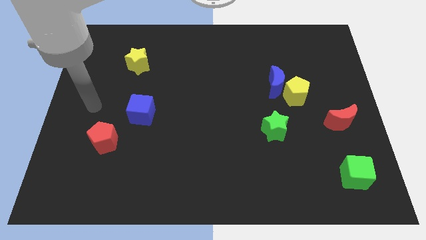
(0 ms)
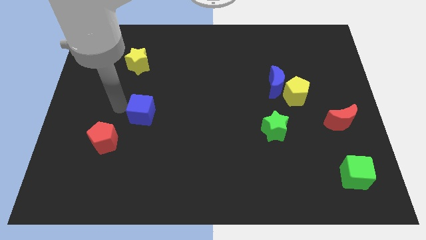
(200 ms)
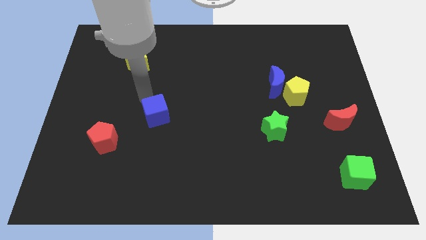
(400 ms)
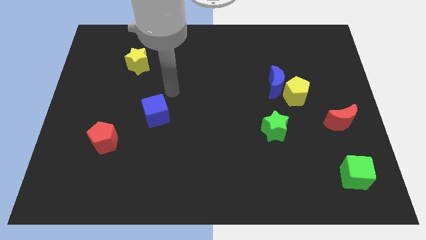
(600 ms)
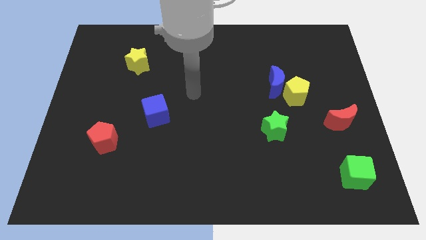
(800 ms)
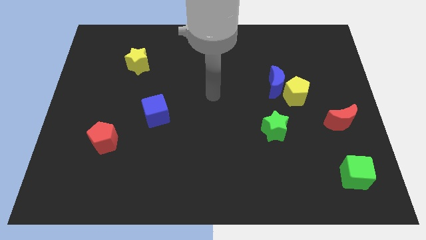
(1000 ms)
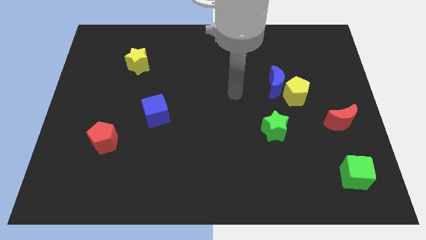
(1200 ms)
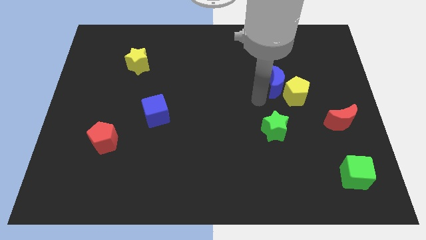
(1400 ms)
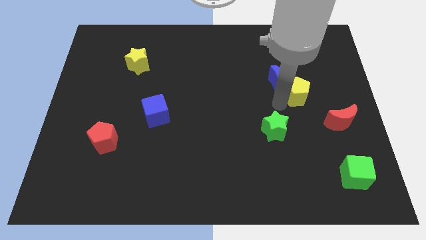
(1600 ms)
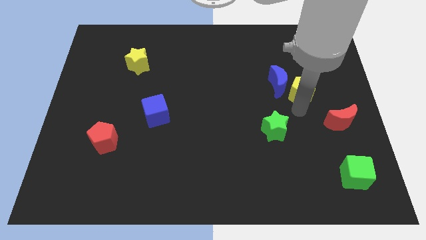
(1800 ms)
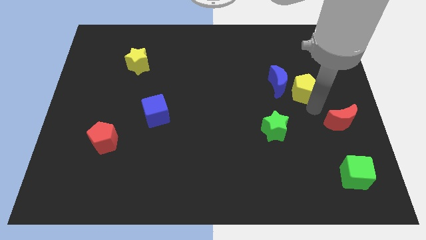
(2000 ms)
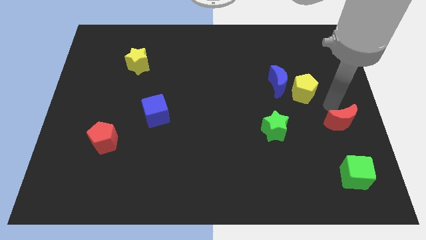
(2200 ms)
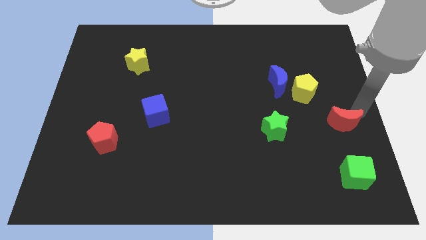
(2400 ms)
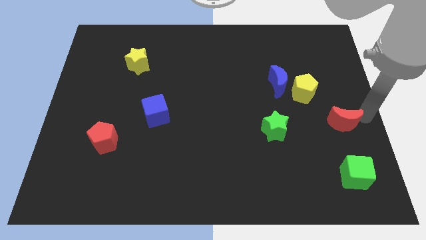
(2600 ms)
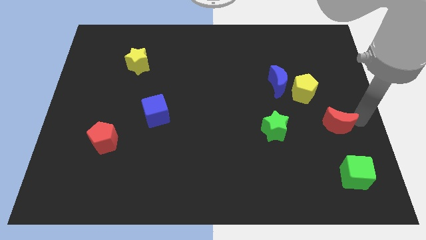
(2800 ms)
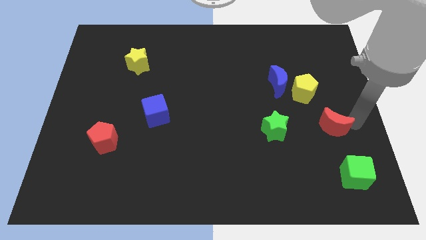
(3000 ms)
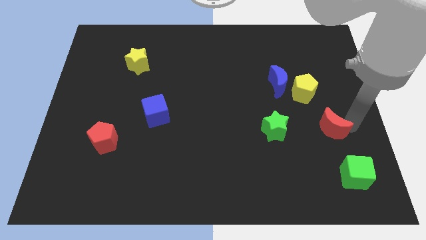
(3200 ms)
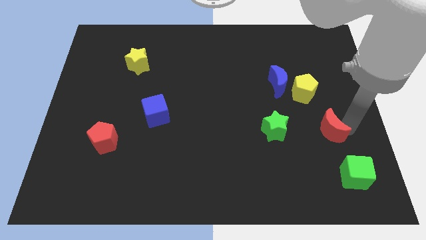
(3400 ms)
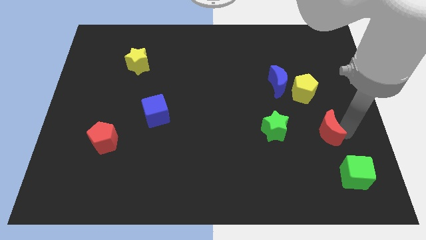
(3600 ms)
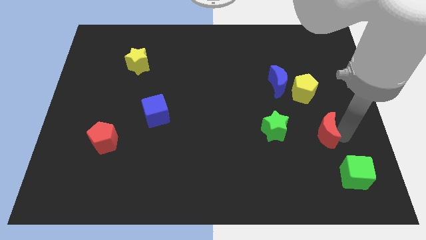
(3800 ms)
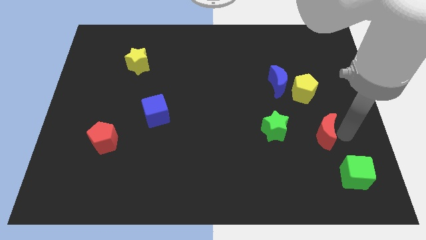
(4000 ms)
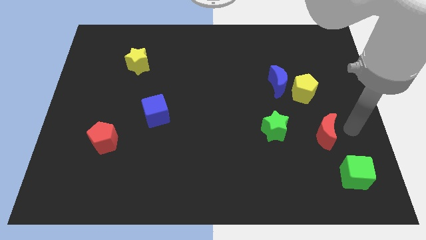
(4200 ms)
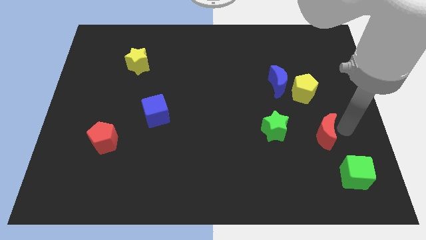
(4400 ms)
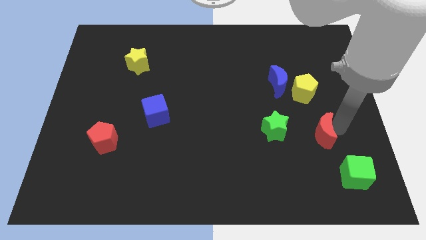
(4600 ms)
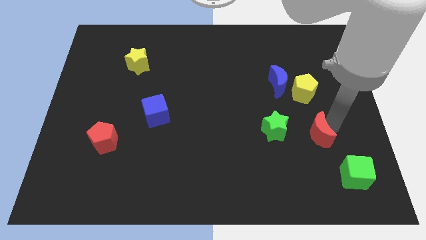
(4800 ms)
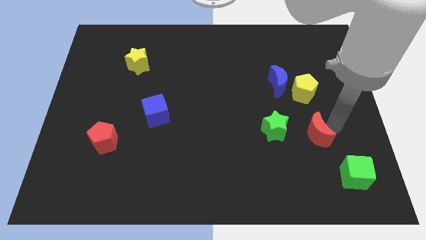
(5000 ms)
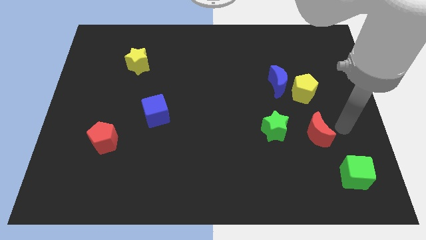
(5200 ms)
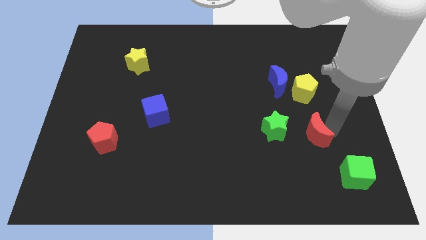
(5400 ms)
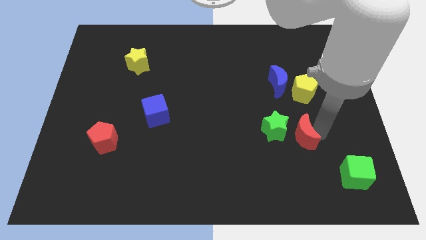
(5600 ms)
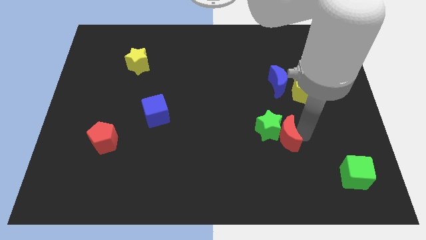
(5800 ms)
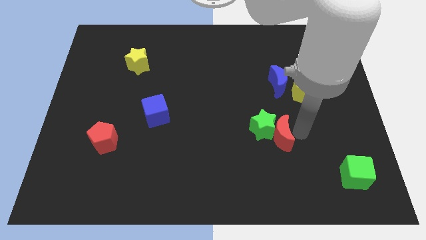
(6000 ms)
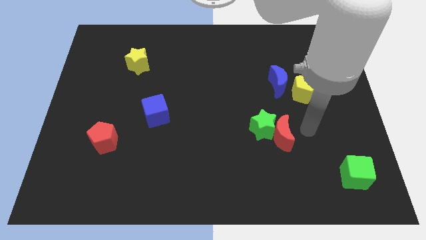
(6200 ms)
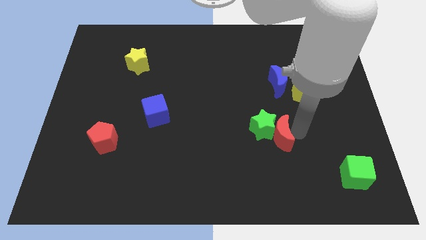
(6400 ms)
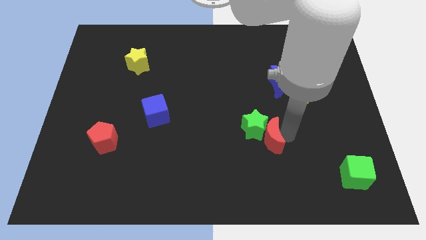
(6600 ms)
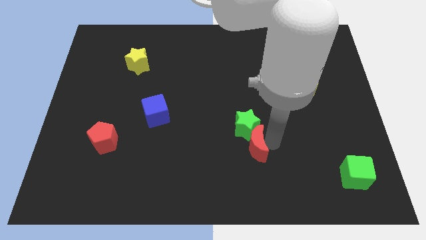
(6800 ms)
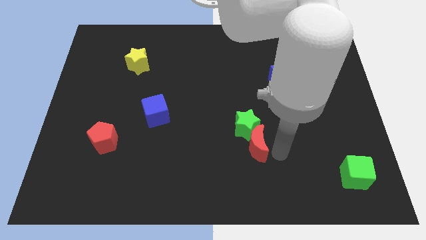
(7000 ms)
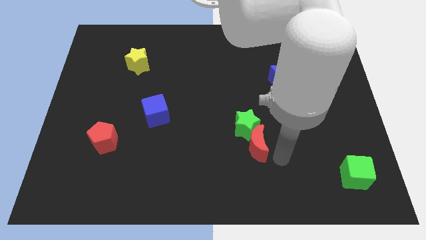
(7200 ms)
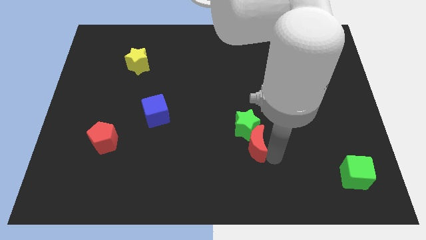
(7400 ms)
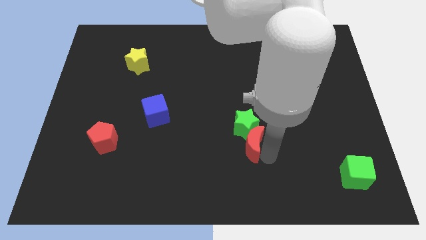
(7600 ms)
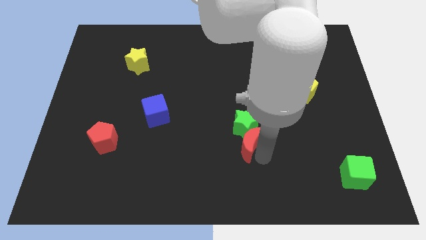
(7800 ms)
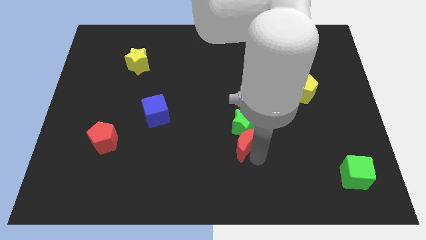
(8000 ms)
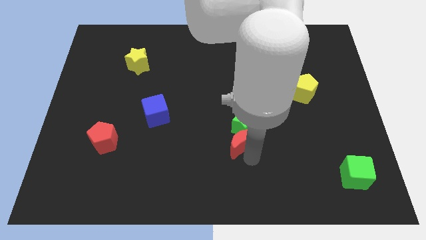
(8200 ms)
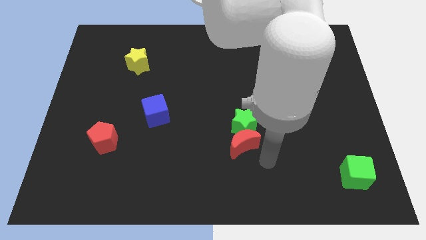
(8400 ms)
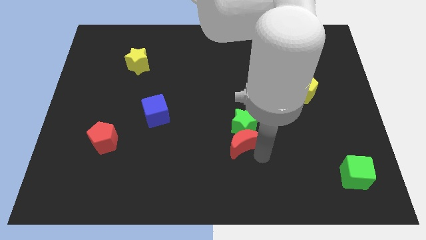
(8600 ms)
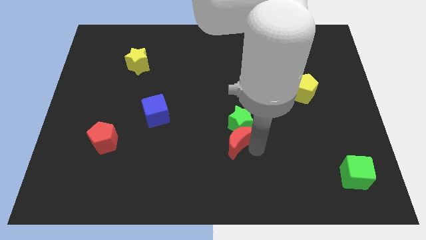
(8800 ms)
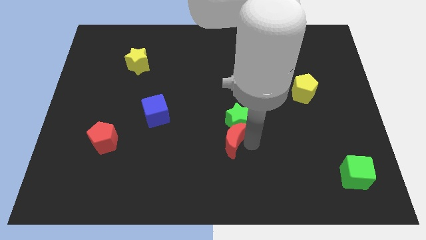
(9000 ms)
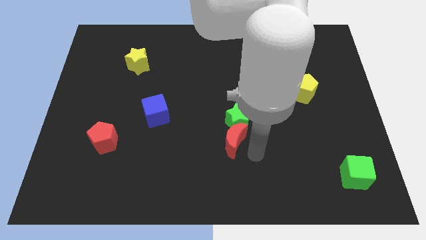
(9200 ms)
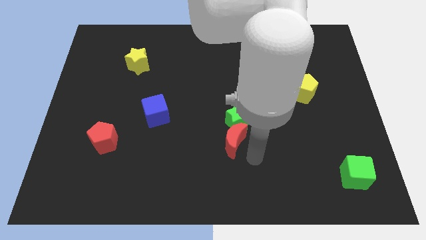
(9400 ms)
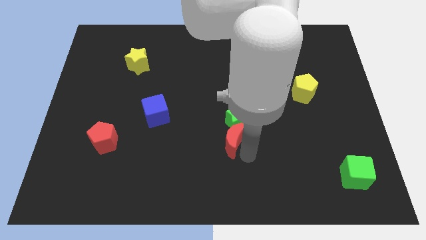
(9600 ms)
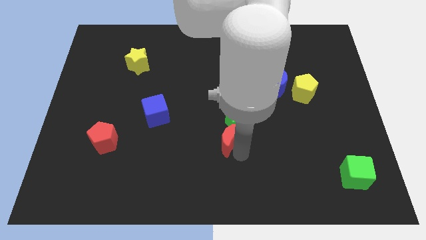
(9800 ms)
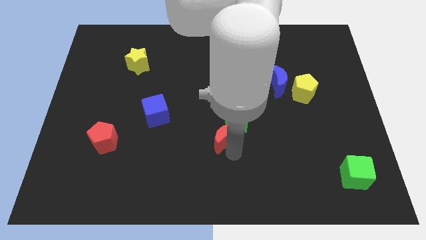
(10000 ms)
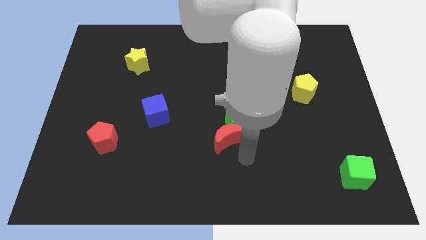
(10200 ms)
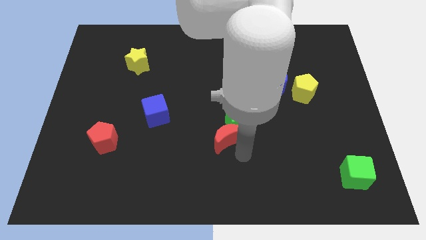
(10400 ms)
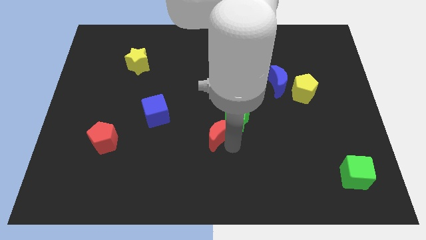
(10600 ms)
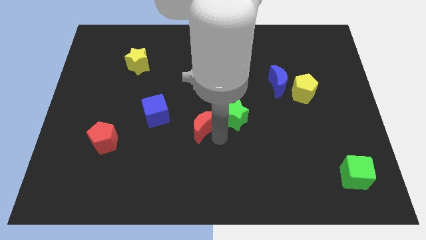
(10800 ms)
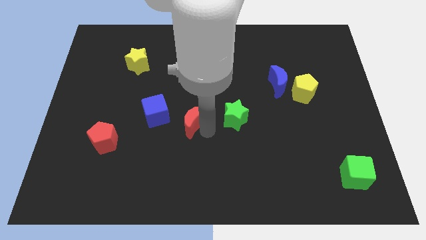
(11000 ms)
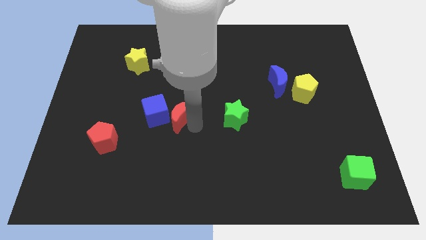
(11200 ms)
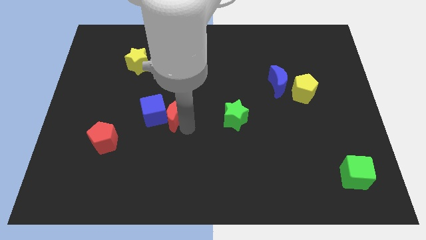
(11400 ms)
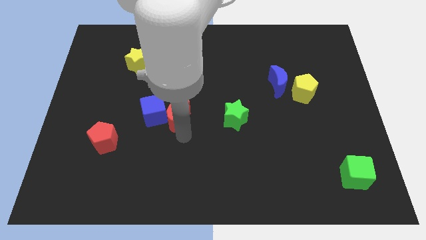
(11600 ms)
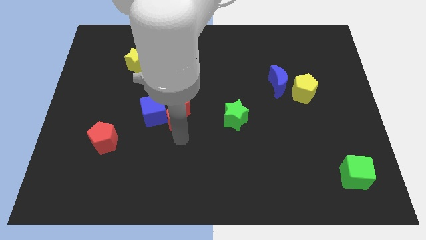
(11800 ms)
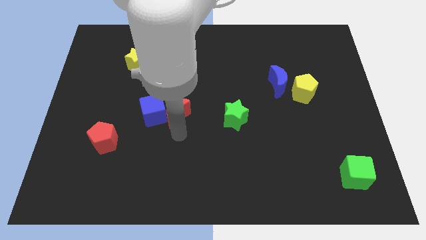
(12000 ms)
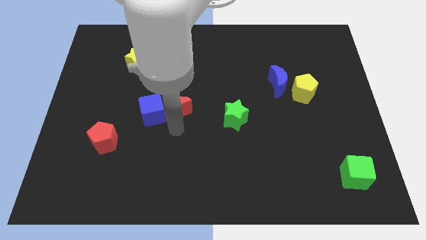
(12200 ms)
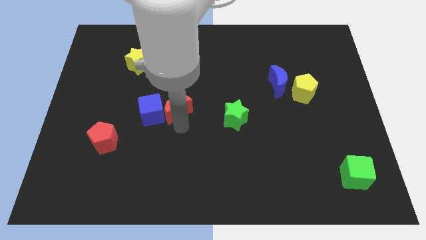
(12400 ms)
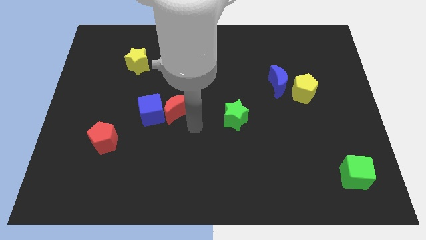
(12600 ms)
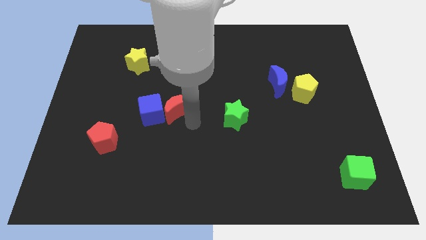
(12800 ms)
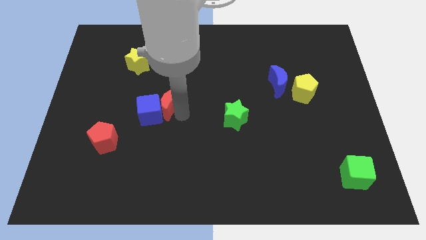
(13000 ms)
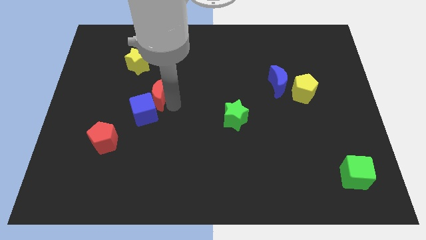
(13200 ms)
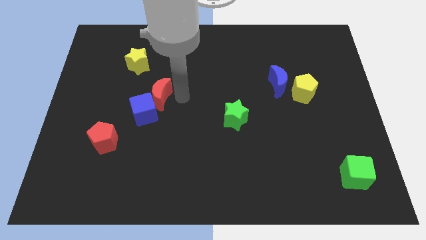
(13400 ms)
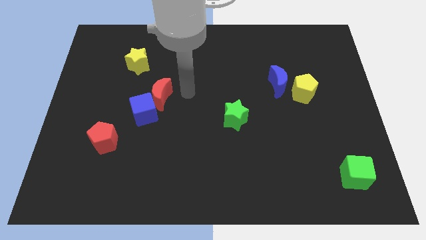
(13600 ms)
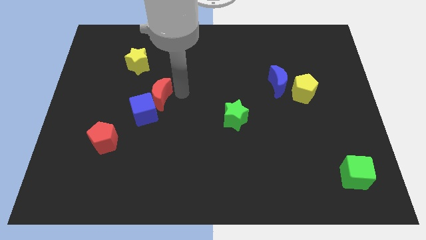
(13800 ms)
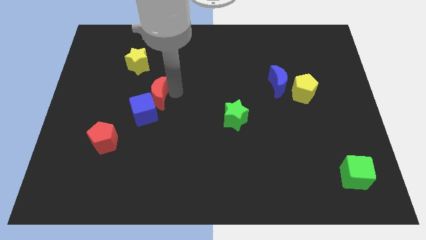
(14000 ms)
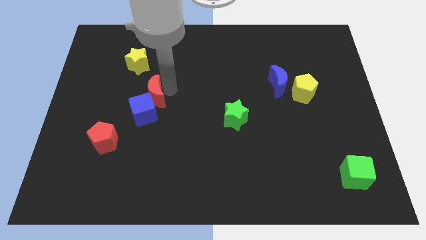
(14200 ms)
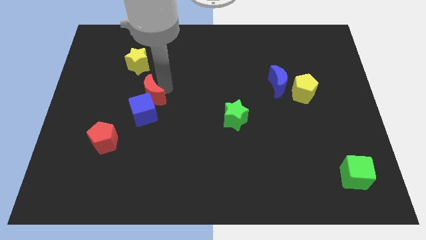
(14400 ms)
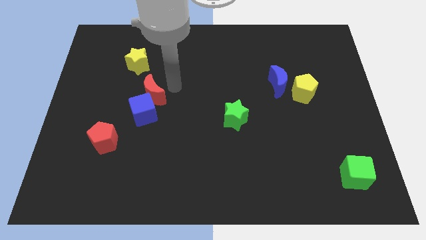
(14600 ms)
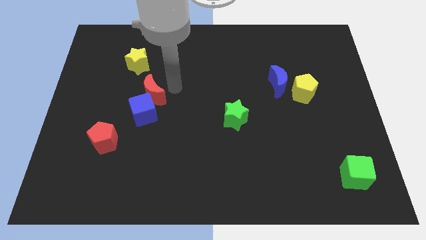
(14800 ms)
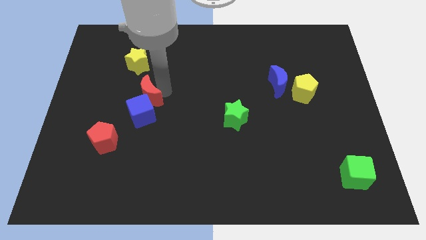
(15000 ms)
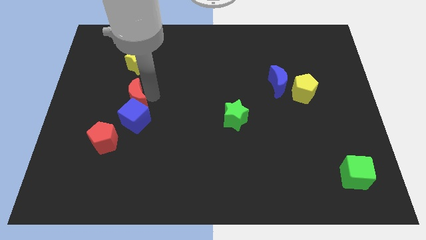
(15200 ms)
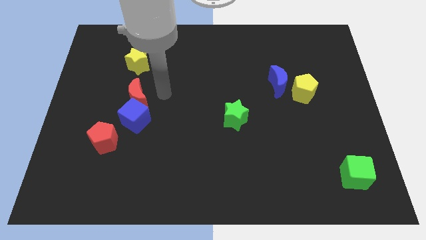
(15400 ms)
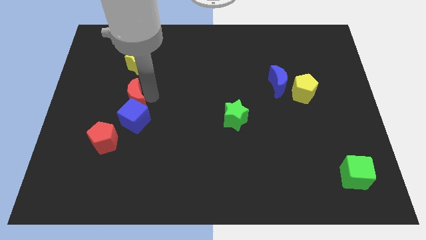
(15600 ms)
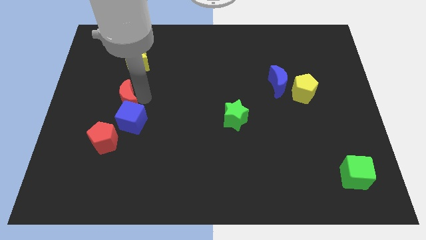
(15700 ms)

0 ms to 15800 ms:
move the red moon to the top side of the red pentagon

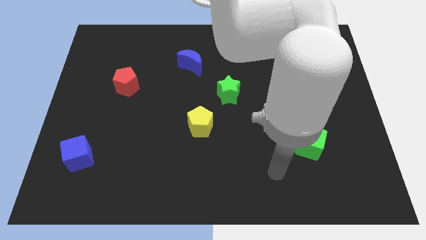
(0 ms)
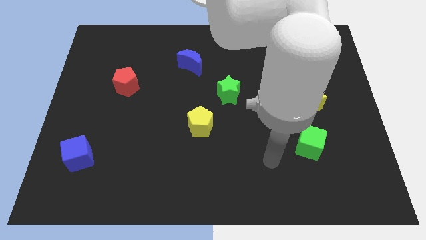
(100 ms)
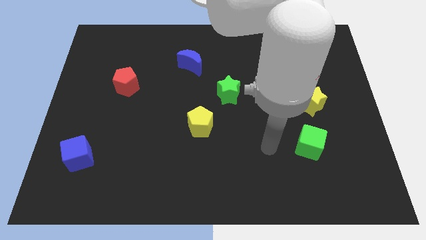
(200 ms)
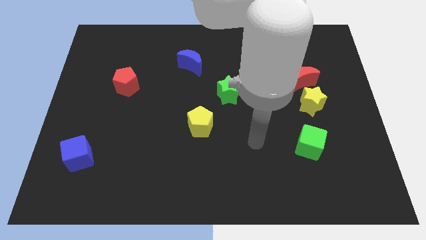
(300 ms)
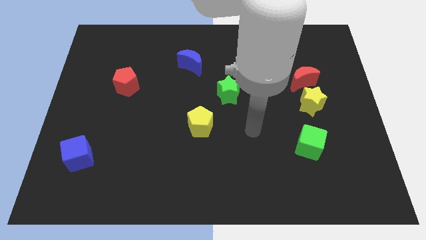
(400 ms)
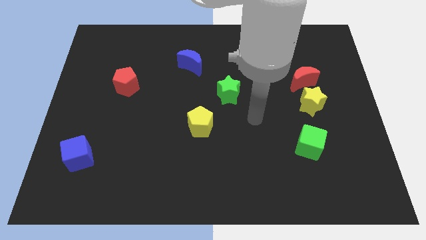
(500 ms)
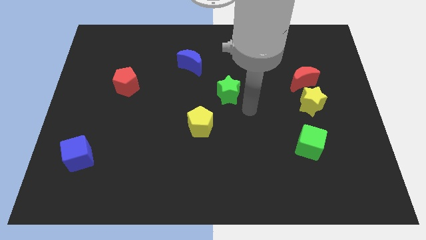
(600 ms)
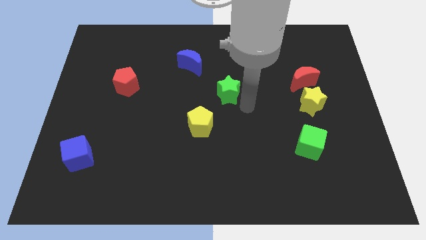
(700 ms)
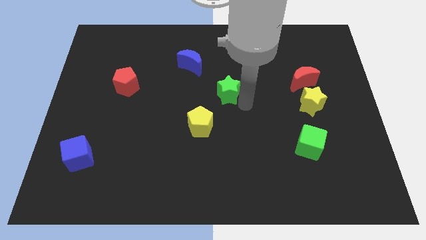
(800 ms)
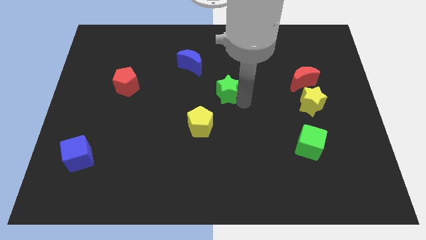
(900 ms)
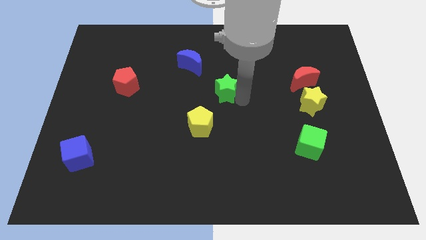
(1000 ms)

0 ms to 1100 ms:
slide the green star diagonally down and to the right of the blue moon
